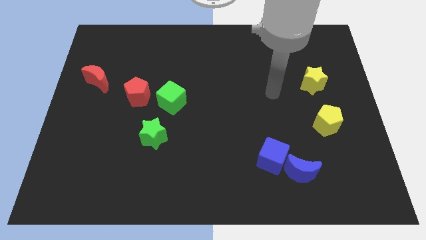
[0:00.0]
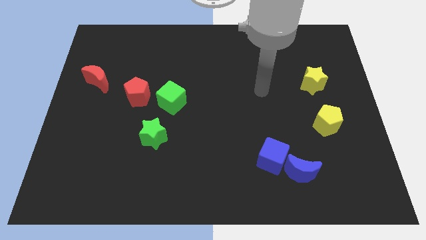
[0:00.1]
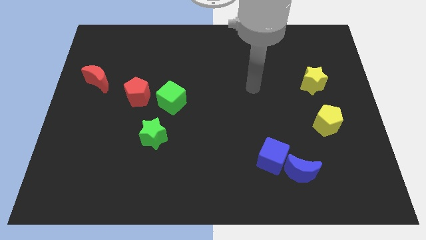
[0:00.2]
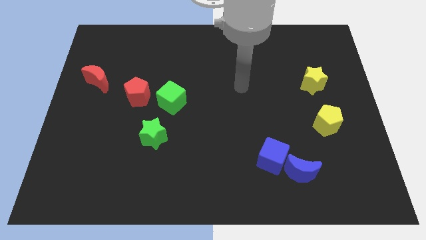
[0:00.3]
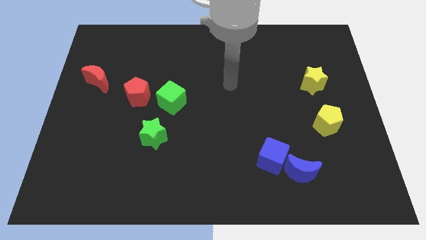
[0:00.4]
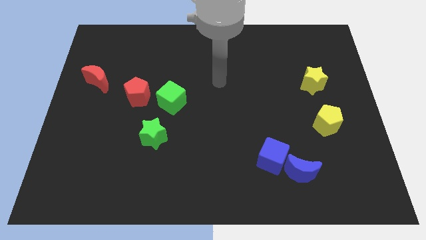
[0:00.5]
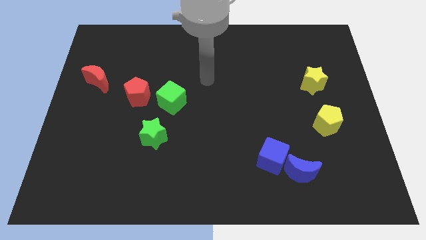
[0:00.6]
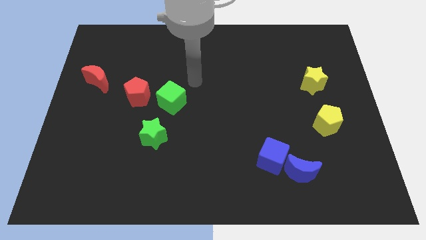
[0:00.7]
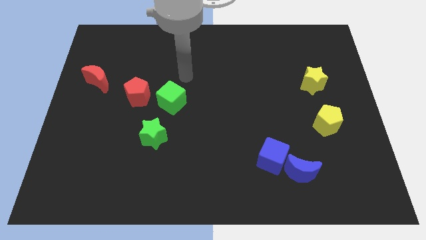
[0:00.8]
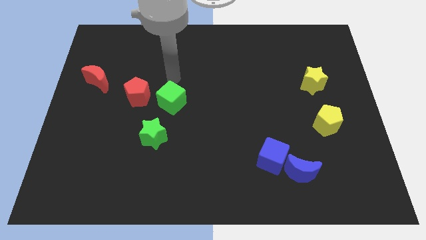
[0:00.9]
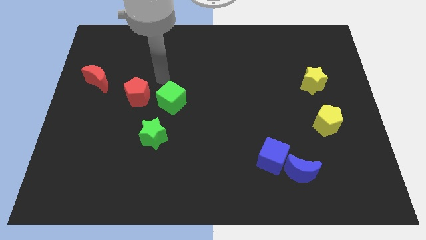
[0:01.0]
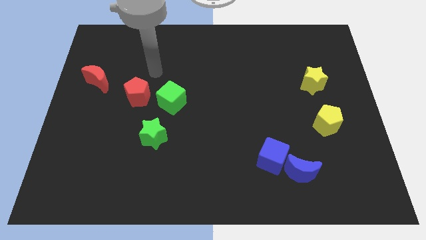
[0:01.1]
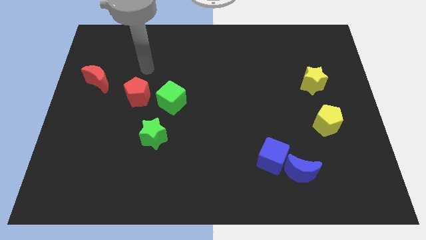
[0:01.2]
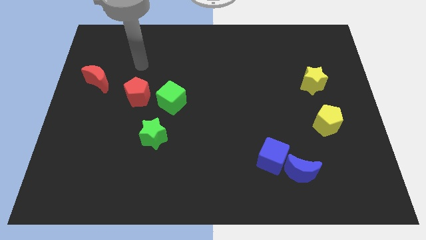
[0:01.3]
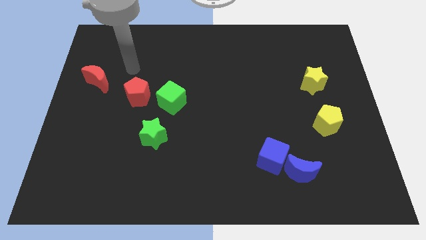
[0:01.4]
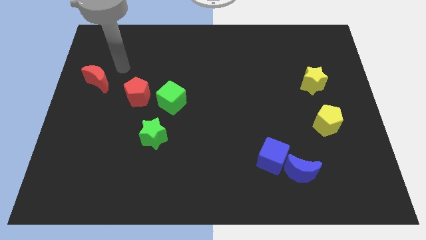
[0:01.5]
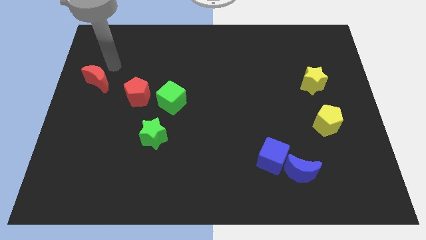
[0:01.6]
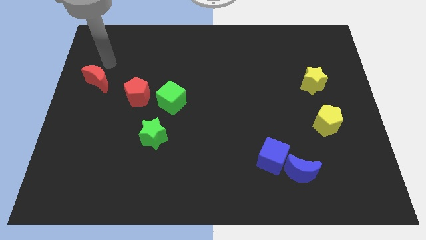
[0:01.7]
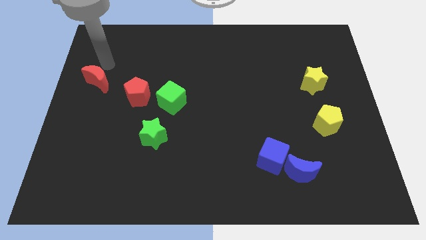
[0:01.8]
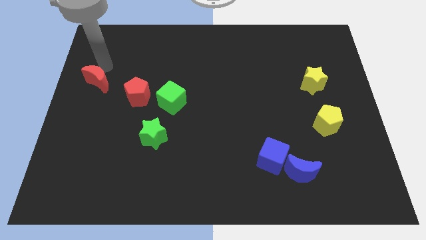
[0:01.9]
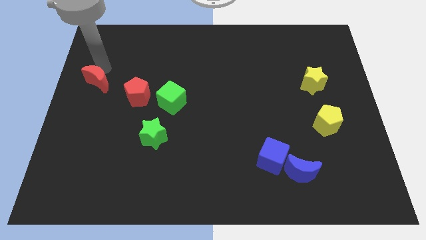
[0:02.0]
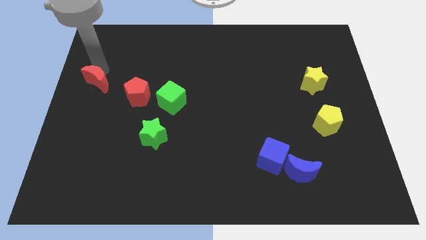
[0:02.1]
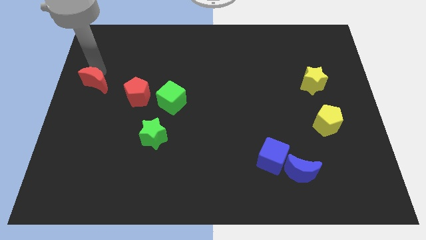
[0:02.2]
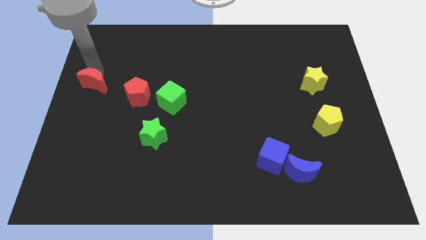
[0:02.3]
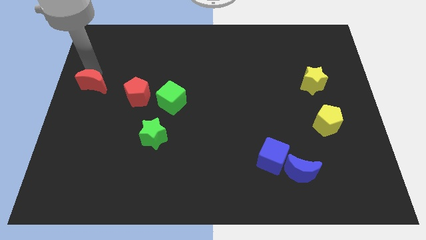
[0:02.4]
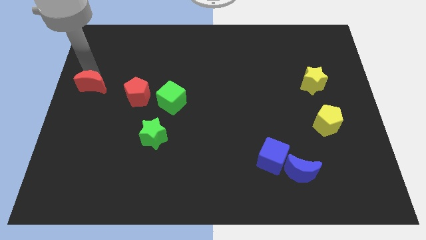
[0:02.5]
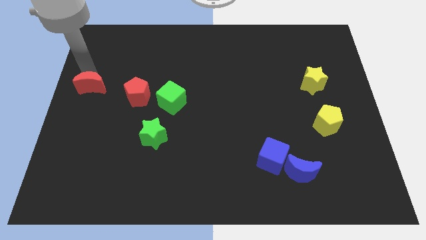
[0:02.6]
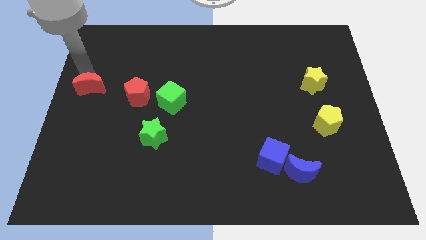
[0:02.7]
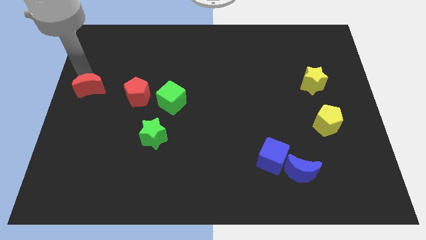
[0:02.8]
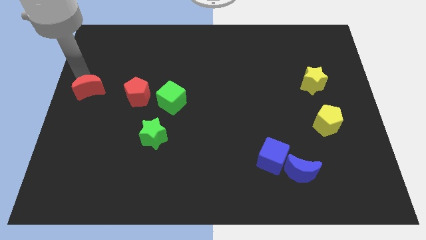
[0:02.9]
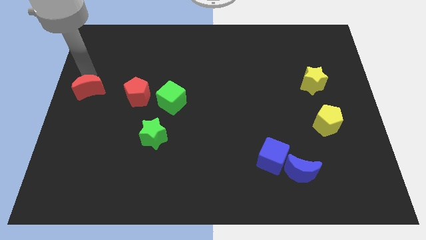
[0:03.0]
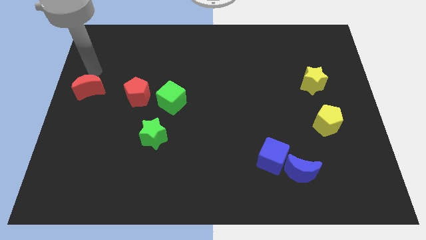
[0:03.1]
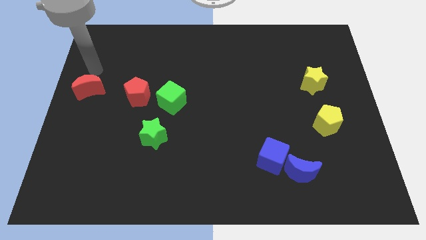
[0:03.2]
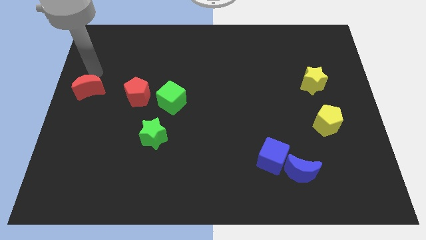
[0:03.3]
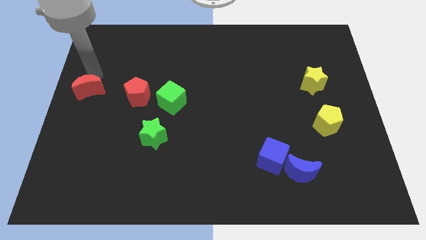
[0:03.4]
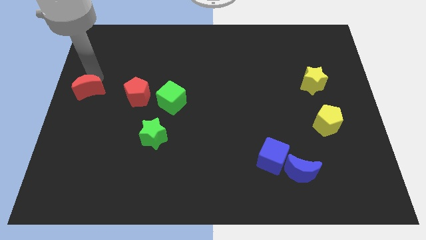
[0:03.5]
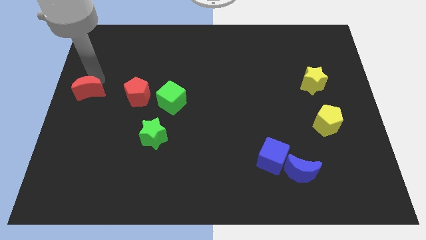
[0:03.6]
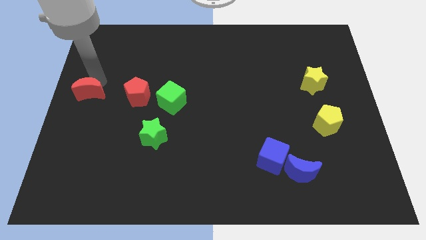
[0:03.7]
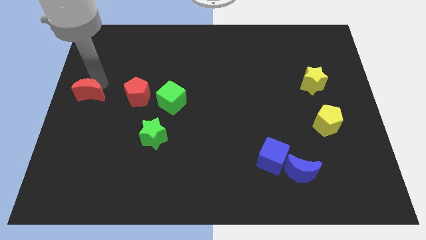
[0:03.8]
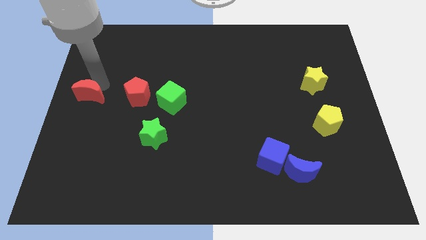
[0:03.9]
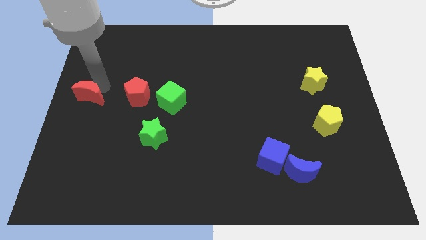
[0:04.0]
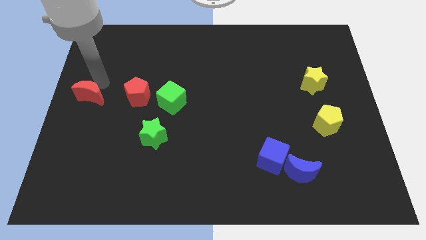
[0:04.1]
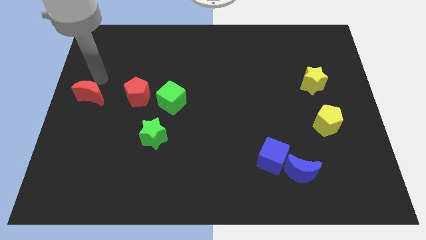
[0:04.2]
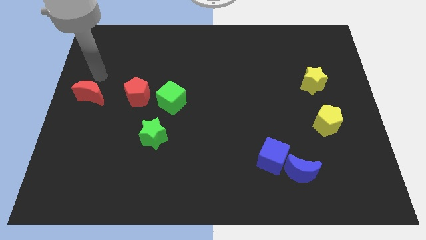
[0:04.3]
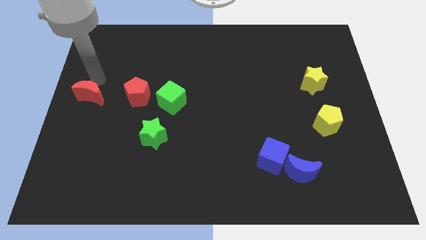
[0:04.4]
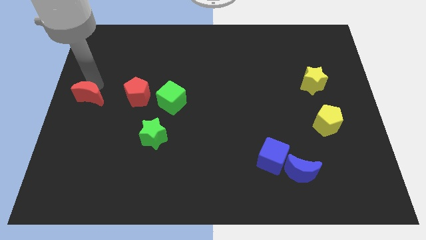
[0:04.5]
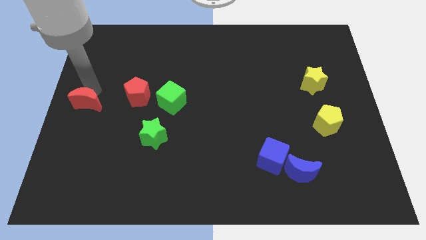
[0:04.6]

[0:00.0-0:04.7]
slide the red moon a bit downwards

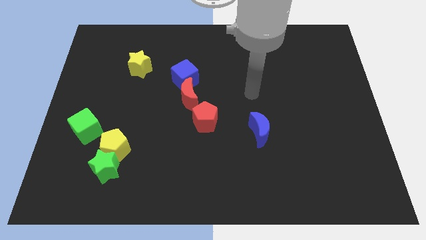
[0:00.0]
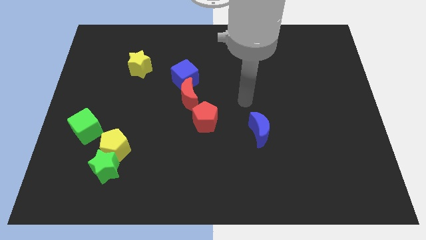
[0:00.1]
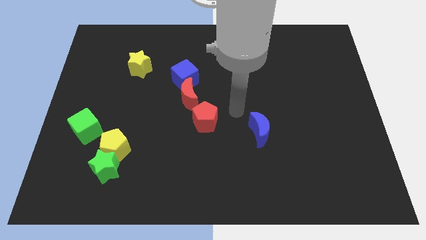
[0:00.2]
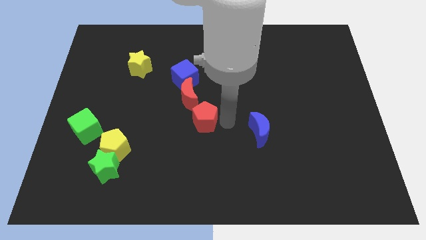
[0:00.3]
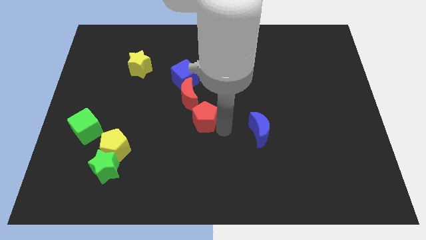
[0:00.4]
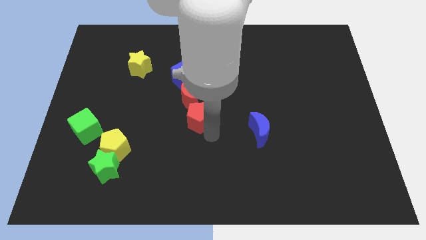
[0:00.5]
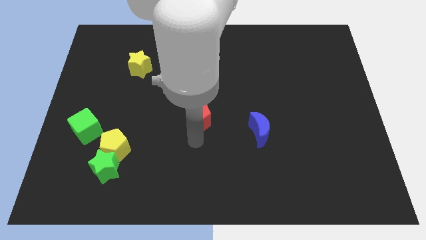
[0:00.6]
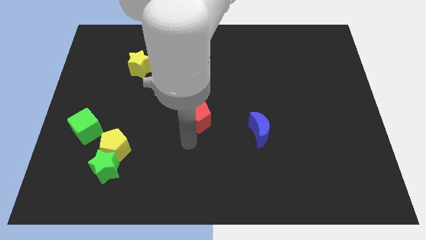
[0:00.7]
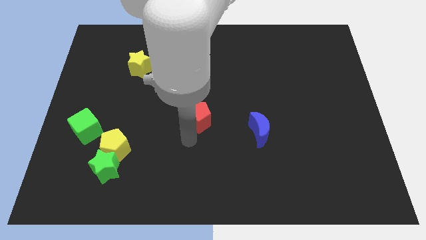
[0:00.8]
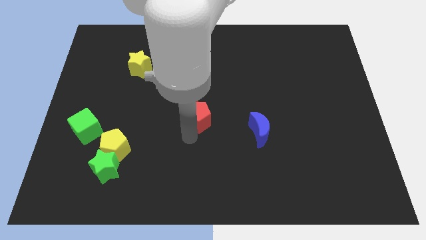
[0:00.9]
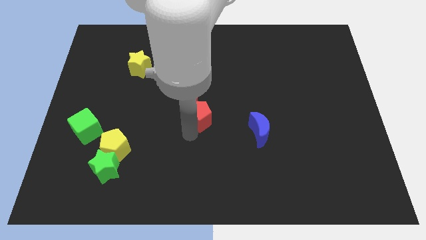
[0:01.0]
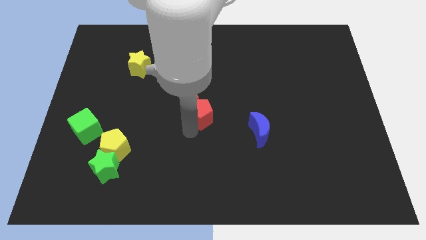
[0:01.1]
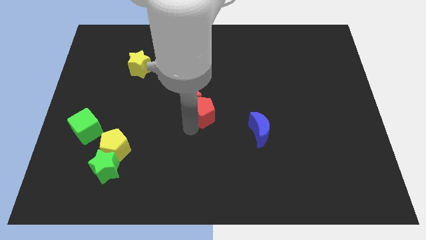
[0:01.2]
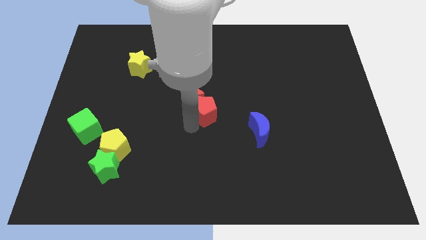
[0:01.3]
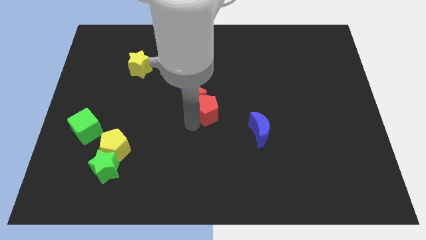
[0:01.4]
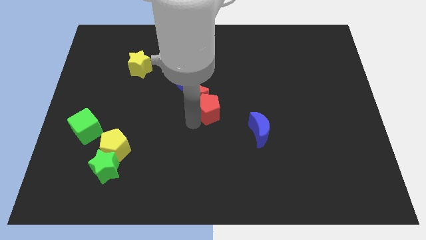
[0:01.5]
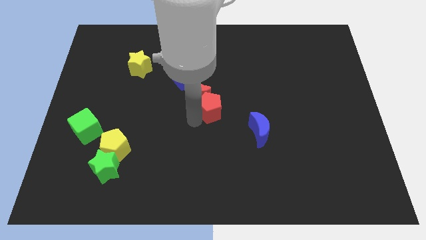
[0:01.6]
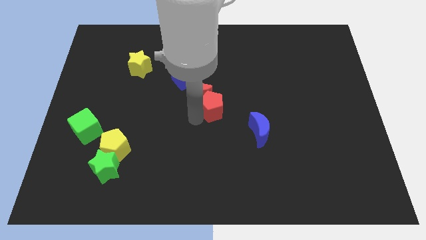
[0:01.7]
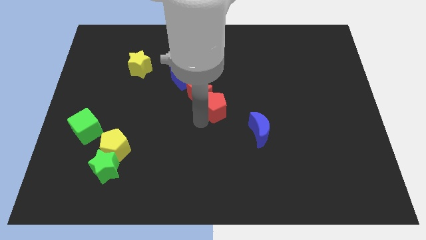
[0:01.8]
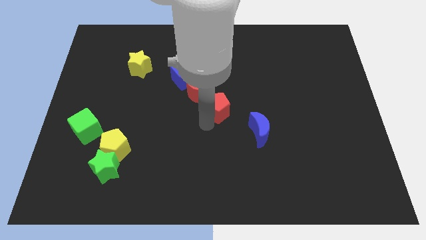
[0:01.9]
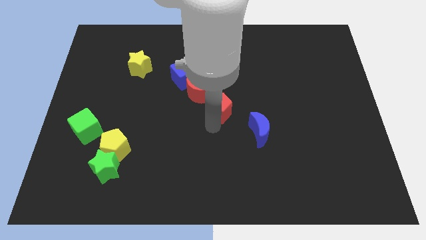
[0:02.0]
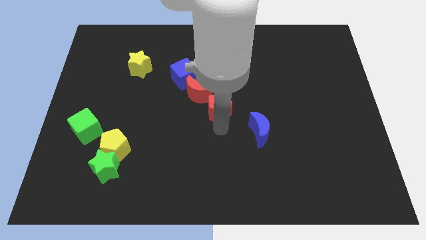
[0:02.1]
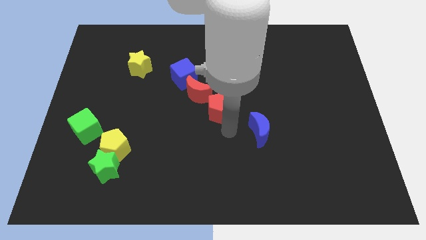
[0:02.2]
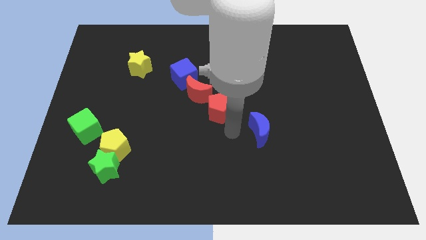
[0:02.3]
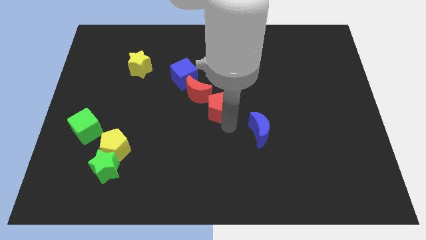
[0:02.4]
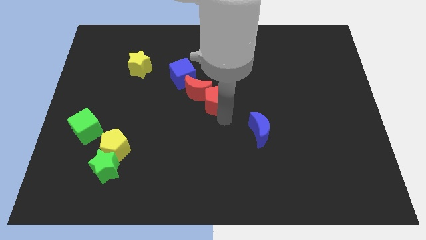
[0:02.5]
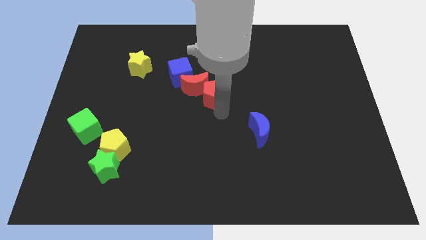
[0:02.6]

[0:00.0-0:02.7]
move the red pentagon a little bit up

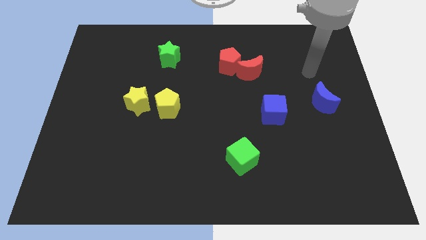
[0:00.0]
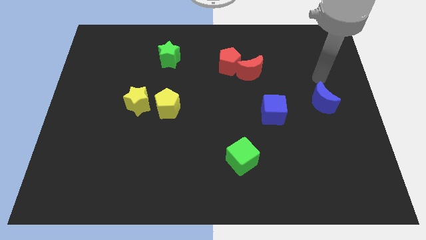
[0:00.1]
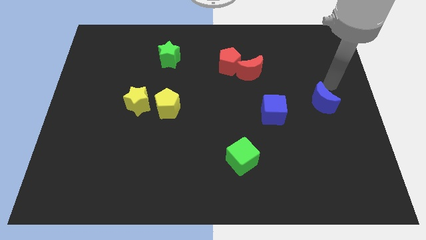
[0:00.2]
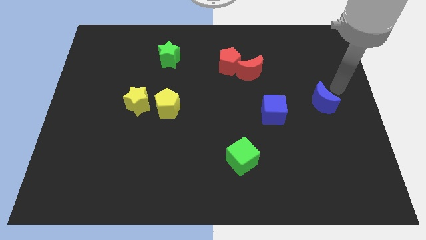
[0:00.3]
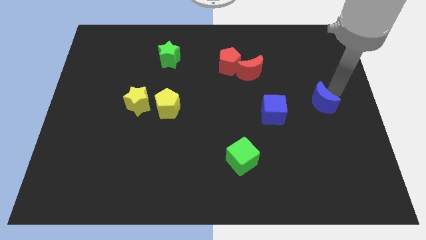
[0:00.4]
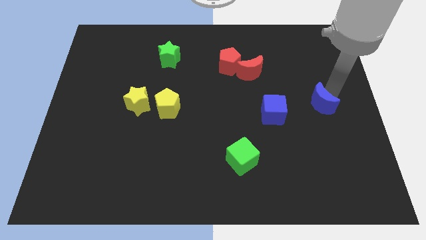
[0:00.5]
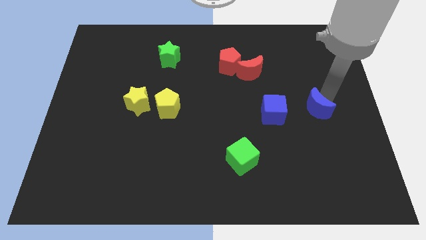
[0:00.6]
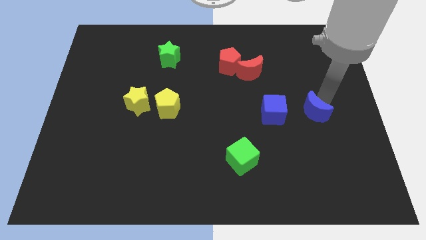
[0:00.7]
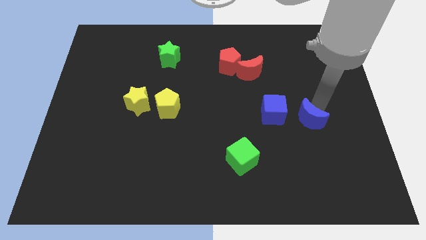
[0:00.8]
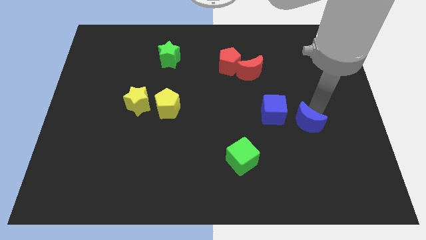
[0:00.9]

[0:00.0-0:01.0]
move the blue moon a bit down and left
